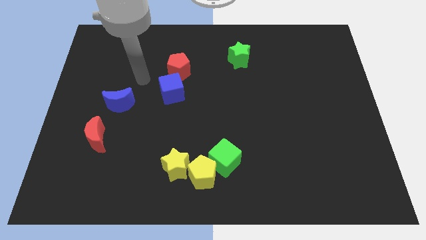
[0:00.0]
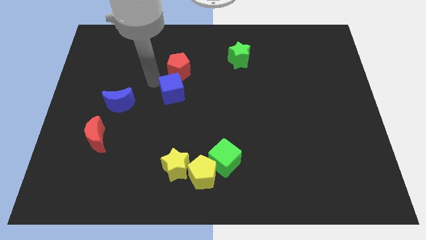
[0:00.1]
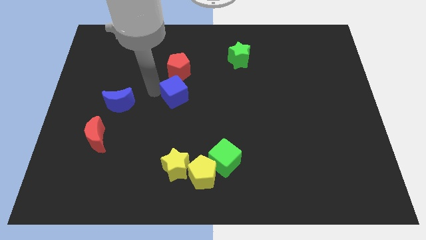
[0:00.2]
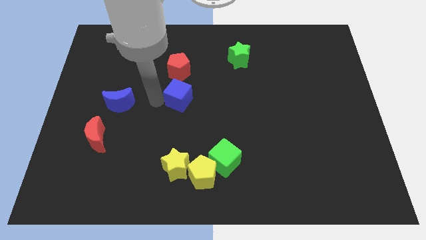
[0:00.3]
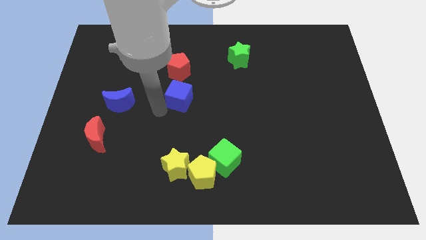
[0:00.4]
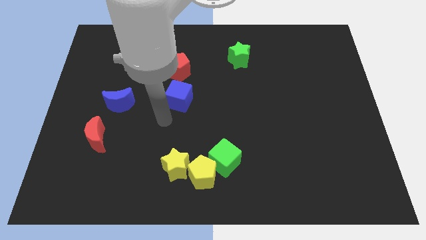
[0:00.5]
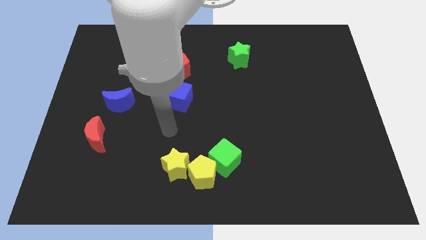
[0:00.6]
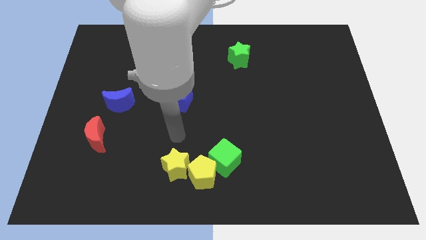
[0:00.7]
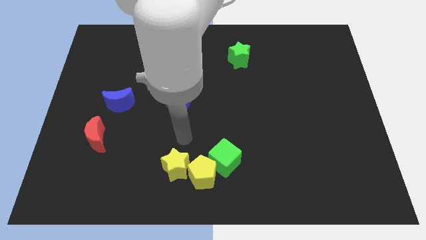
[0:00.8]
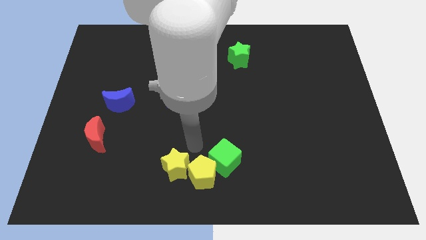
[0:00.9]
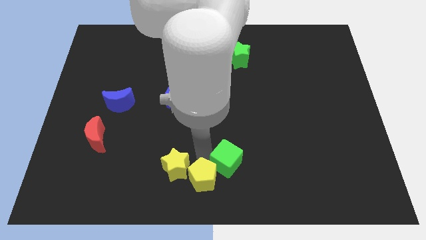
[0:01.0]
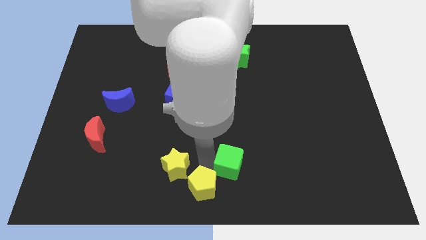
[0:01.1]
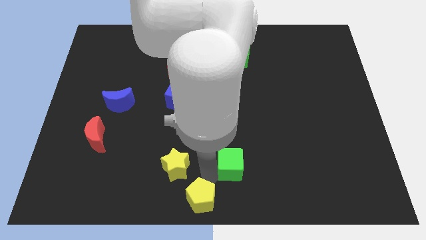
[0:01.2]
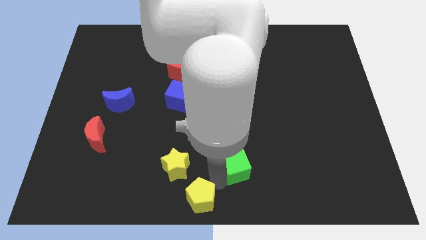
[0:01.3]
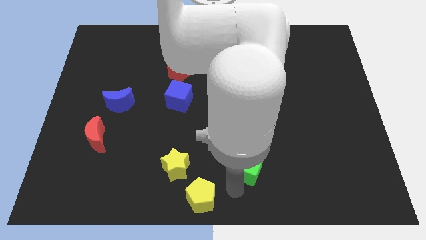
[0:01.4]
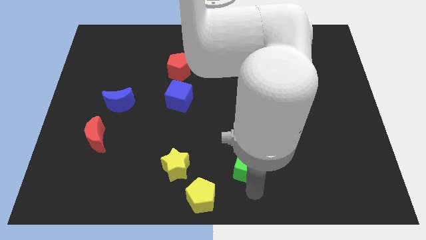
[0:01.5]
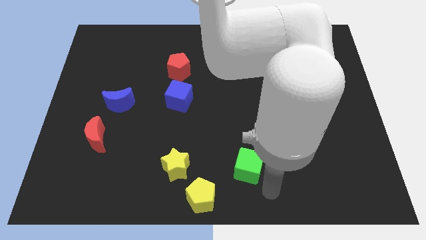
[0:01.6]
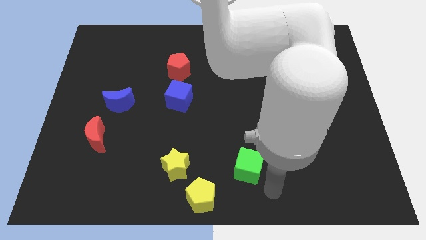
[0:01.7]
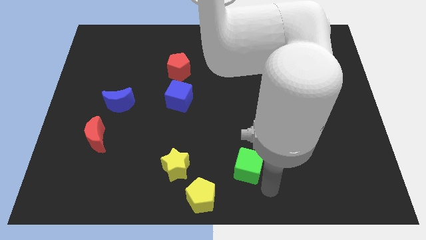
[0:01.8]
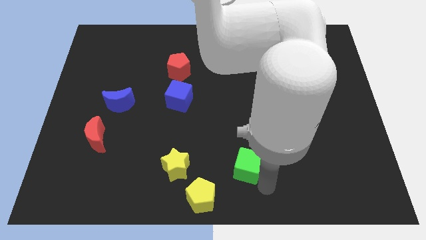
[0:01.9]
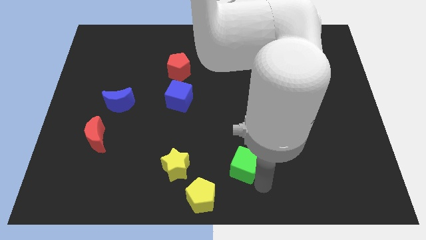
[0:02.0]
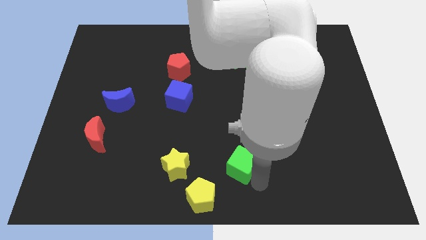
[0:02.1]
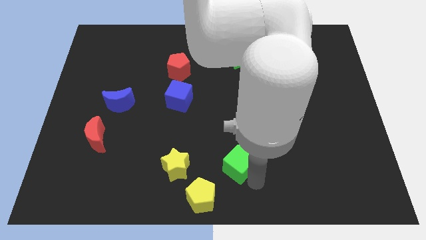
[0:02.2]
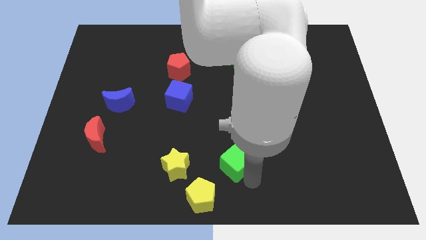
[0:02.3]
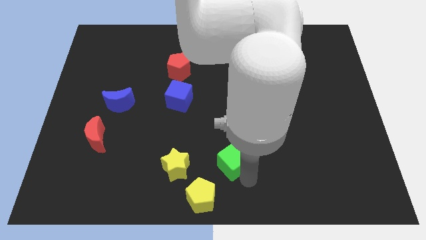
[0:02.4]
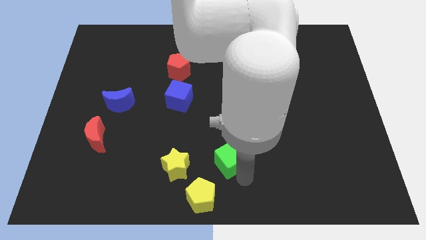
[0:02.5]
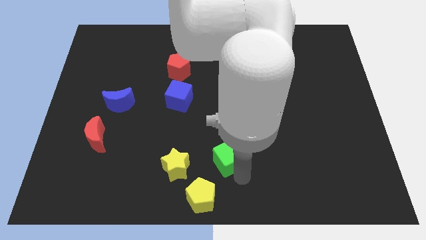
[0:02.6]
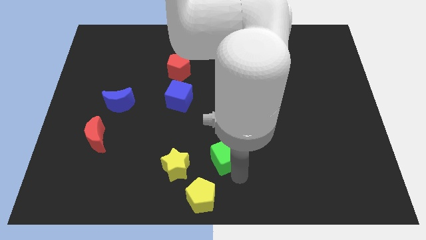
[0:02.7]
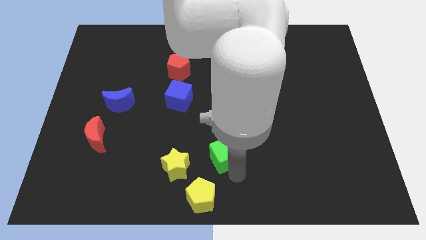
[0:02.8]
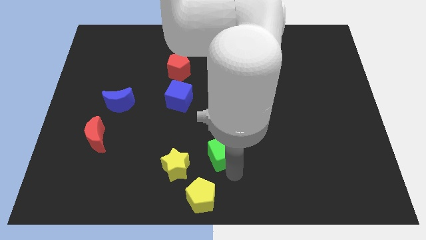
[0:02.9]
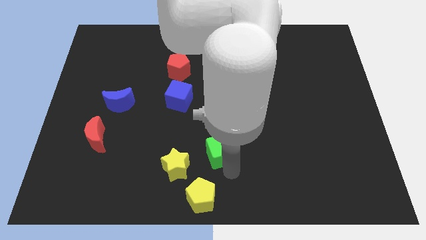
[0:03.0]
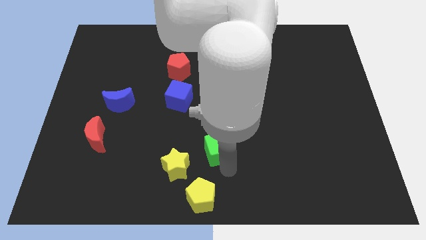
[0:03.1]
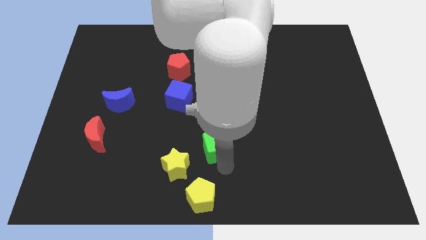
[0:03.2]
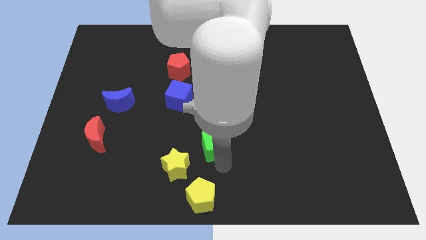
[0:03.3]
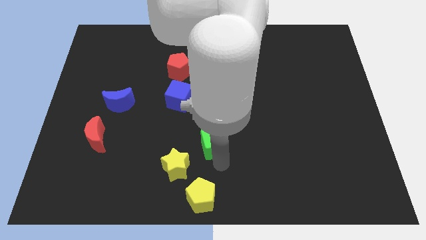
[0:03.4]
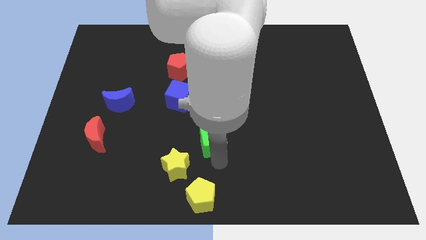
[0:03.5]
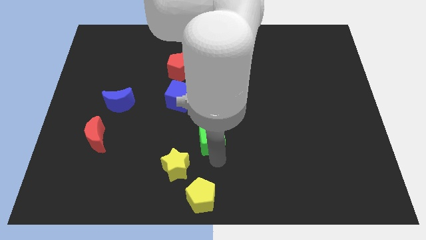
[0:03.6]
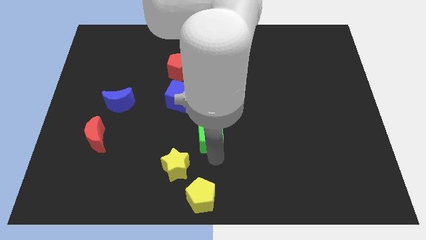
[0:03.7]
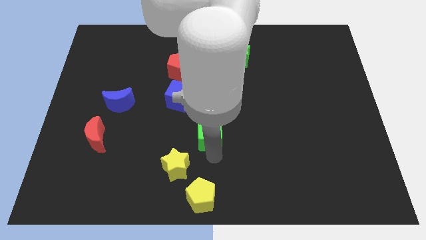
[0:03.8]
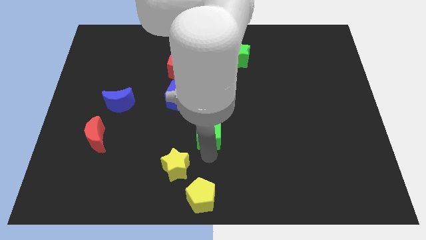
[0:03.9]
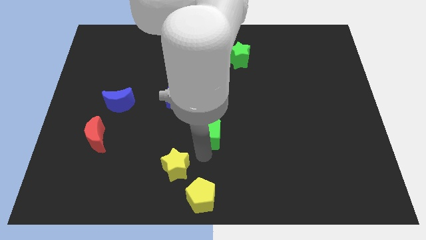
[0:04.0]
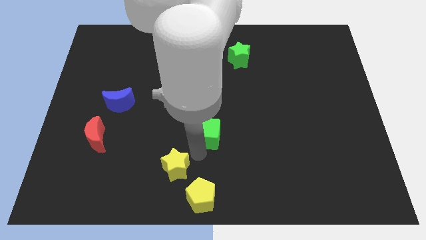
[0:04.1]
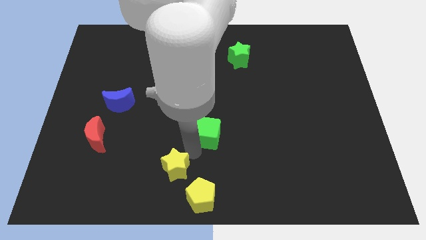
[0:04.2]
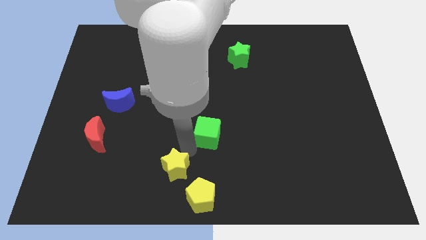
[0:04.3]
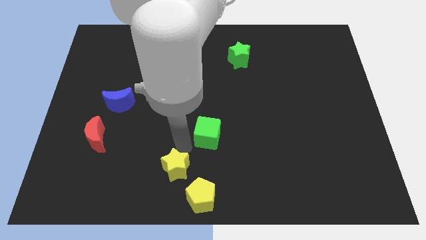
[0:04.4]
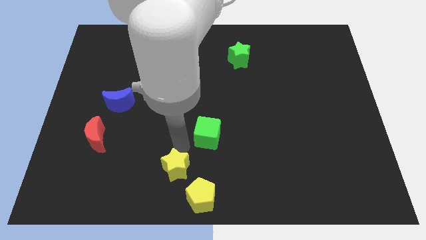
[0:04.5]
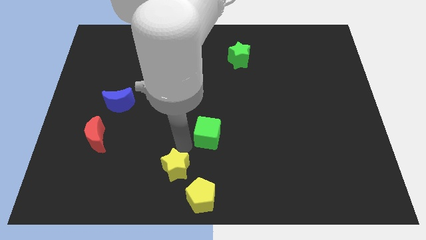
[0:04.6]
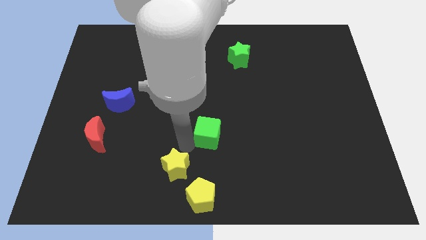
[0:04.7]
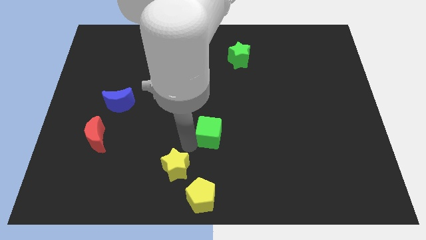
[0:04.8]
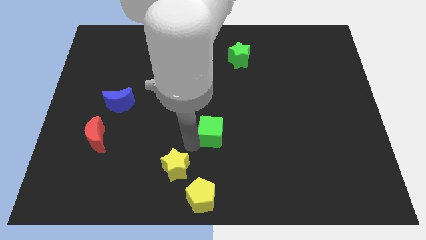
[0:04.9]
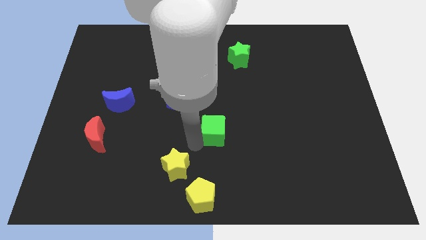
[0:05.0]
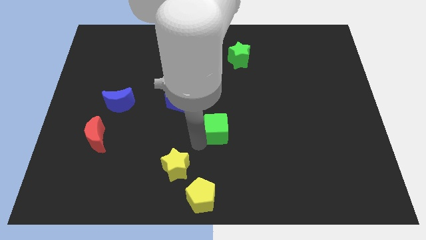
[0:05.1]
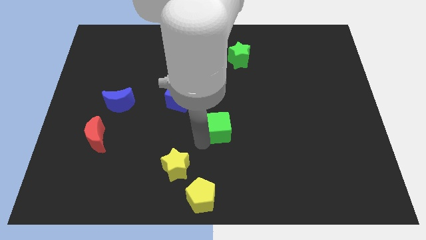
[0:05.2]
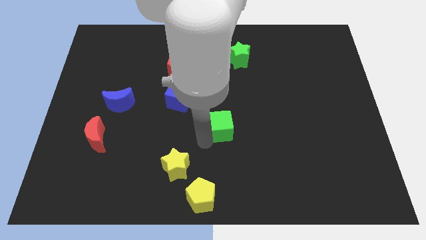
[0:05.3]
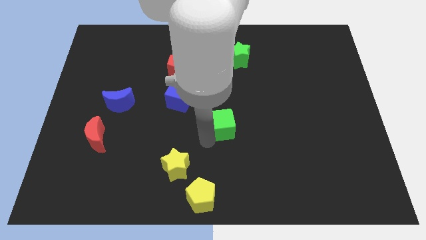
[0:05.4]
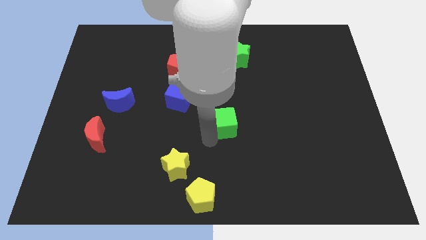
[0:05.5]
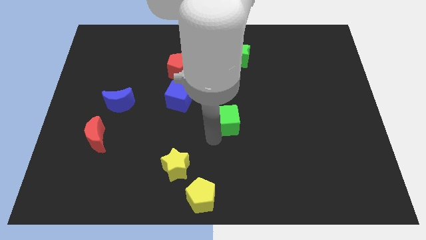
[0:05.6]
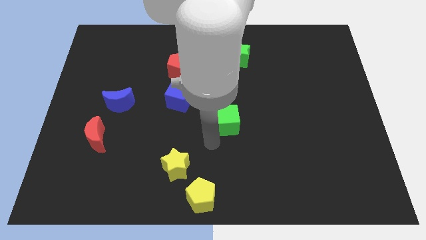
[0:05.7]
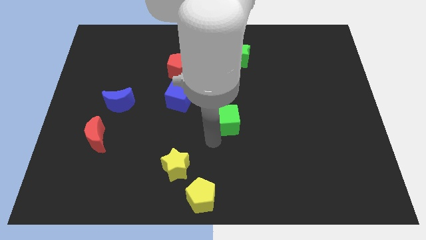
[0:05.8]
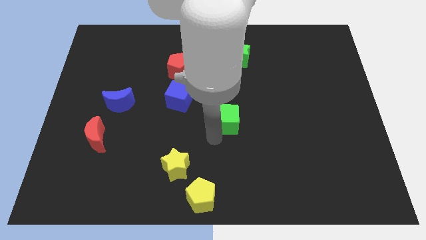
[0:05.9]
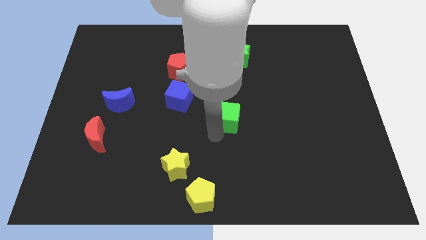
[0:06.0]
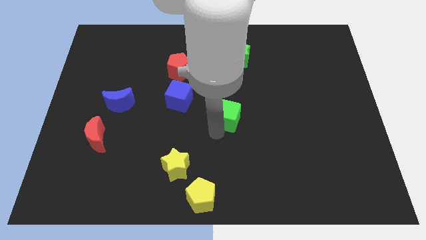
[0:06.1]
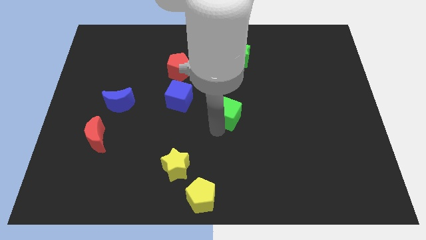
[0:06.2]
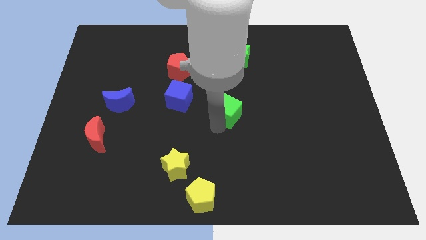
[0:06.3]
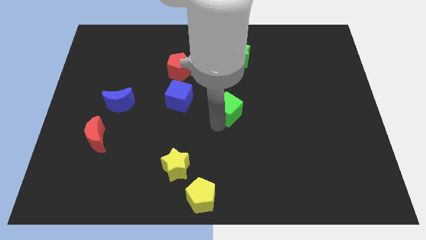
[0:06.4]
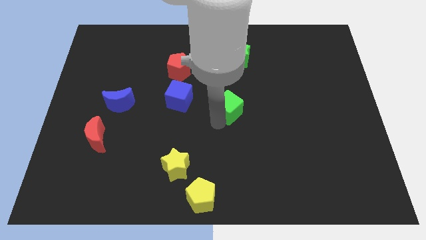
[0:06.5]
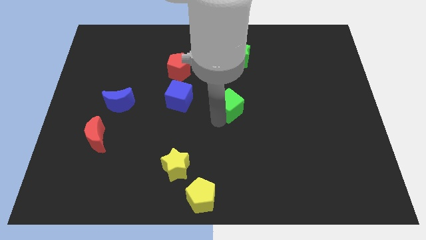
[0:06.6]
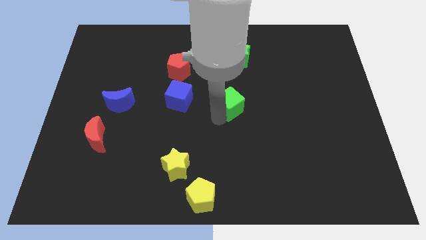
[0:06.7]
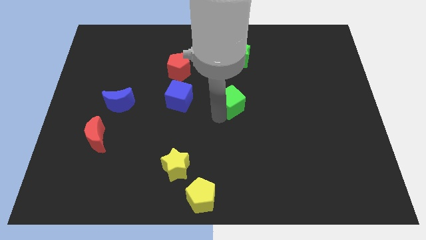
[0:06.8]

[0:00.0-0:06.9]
move the green cube below the green star
